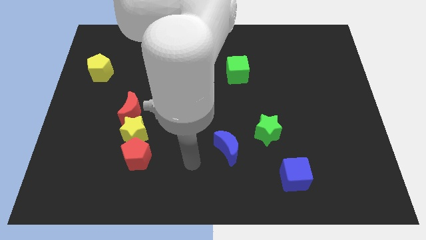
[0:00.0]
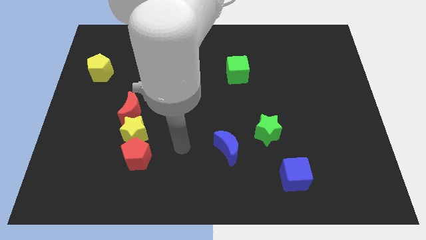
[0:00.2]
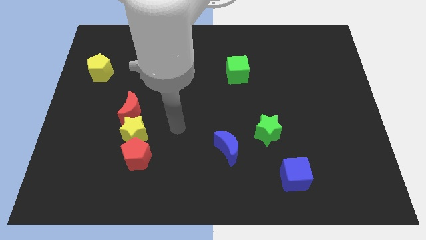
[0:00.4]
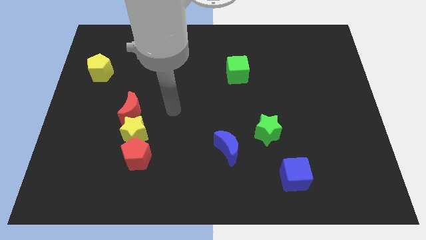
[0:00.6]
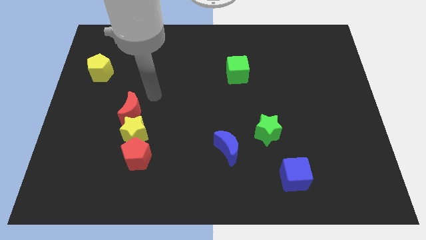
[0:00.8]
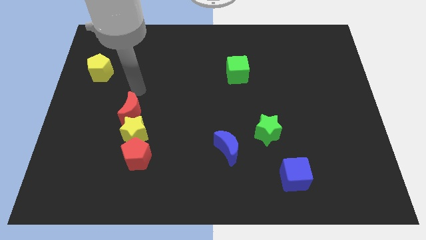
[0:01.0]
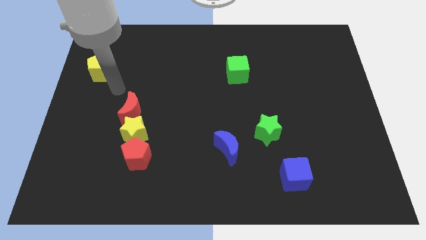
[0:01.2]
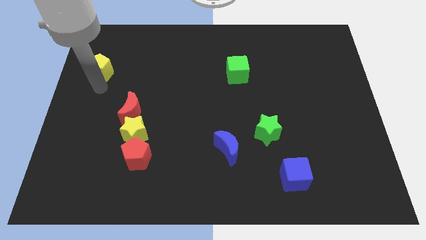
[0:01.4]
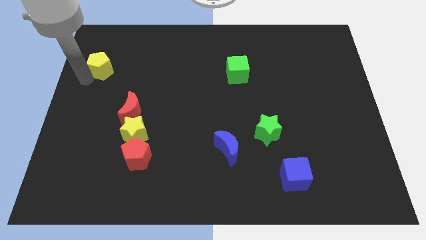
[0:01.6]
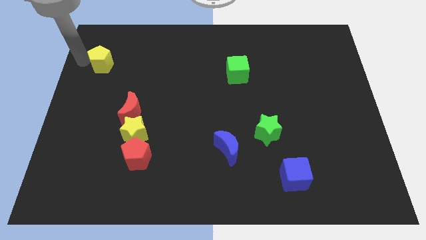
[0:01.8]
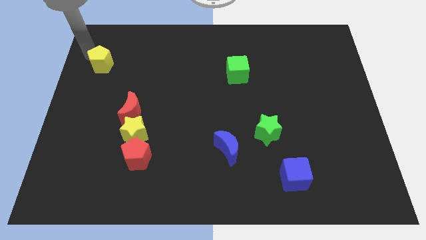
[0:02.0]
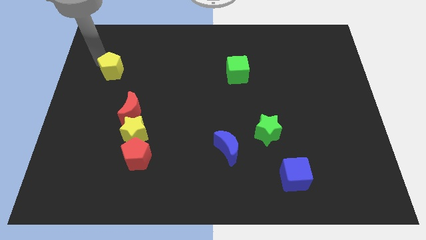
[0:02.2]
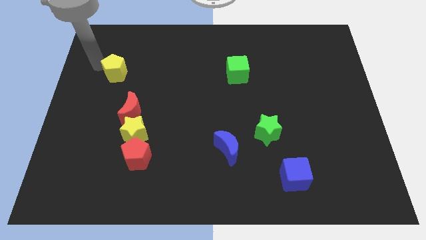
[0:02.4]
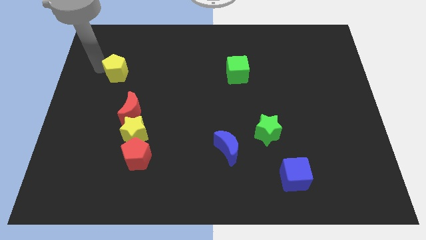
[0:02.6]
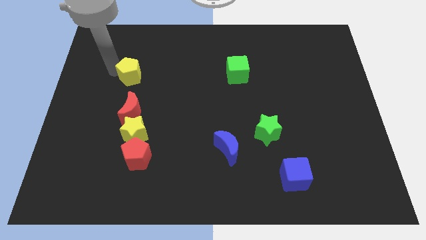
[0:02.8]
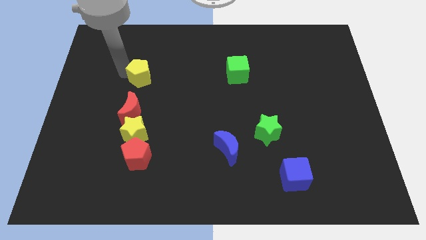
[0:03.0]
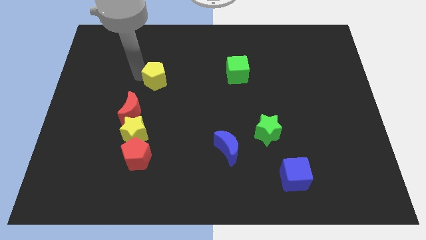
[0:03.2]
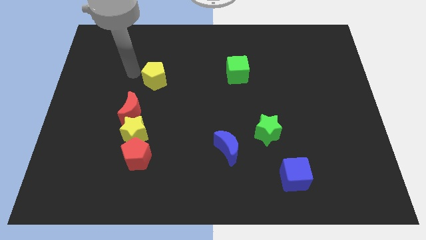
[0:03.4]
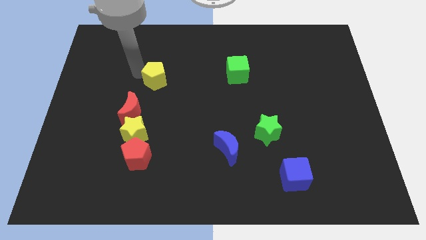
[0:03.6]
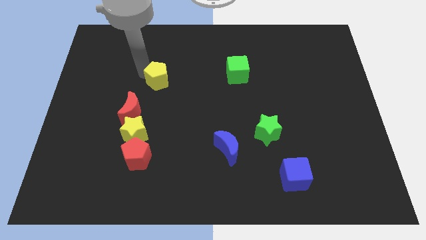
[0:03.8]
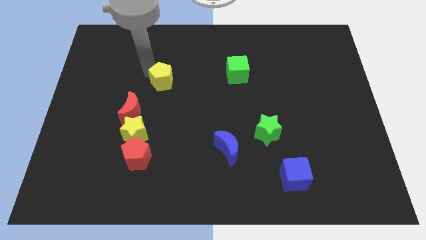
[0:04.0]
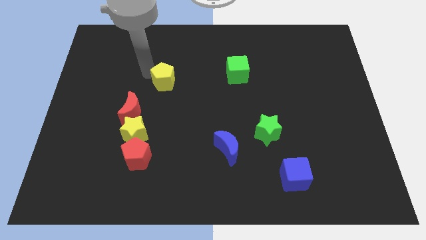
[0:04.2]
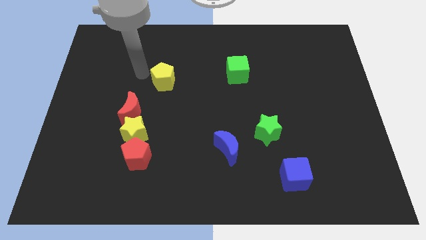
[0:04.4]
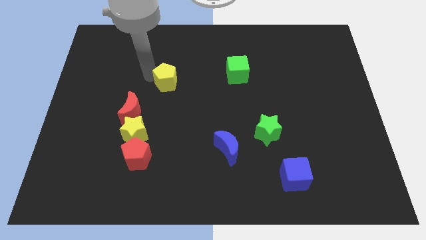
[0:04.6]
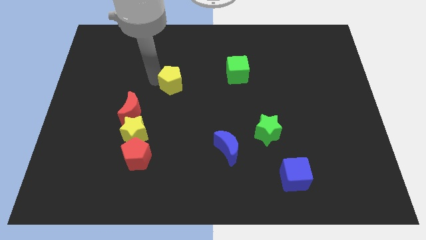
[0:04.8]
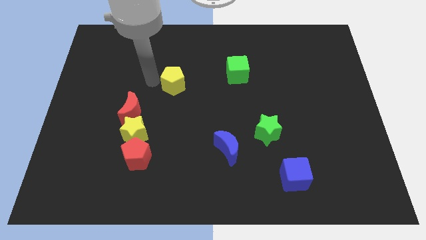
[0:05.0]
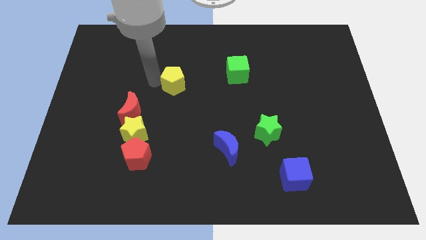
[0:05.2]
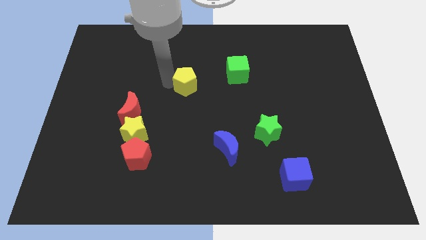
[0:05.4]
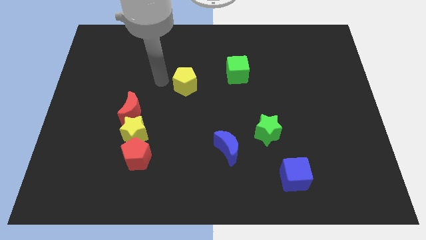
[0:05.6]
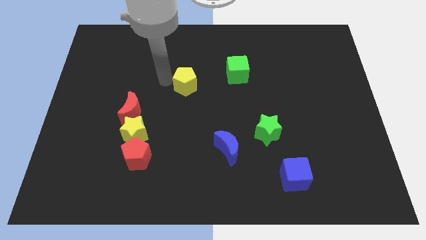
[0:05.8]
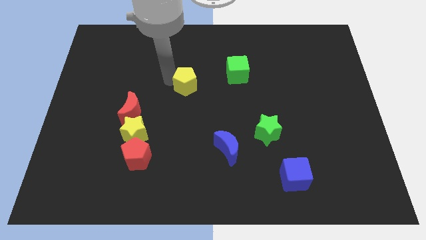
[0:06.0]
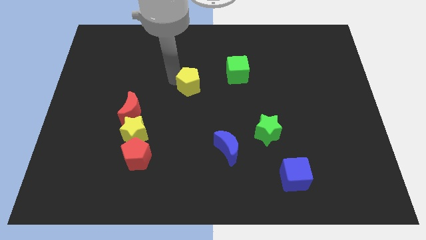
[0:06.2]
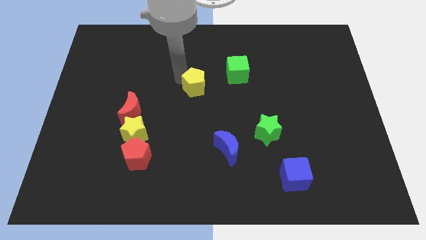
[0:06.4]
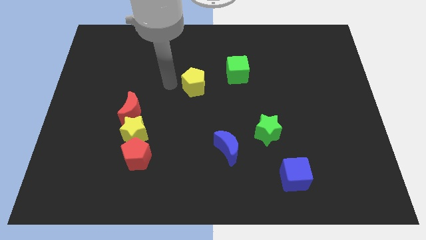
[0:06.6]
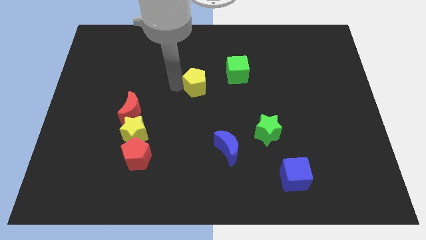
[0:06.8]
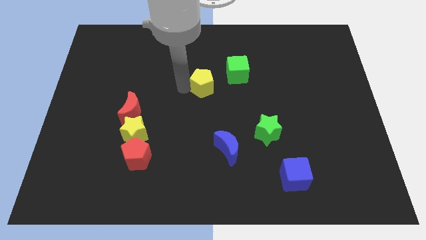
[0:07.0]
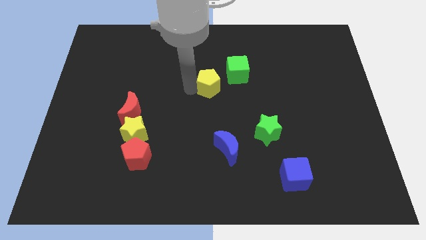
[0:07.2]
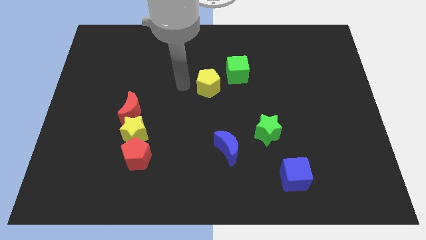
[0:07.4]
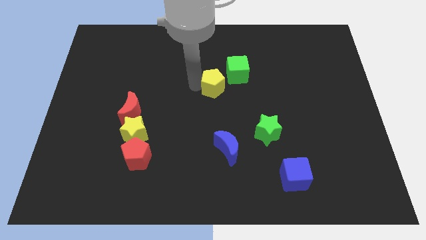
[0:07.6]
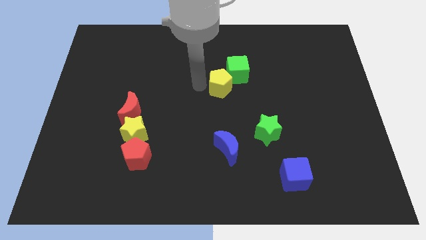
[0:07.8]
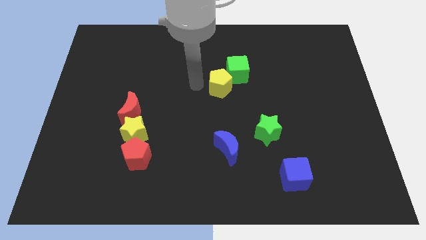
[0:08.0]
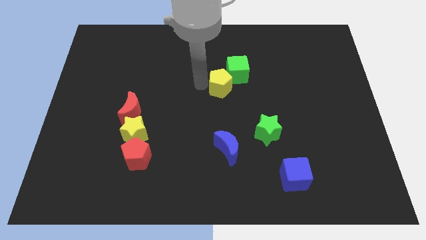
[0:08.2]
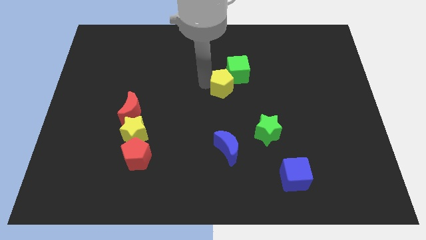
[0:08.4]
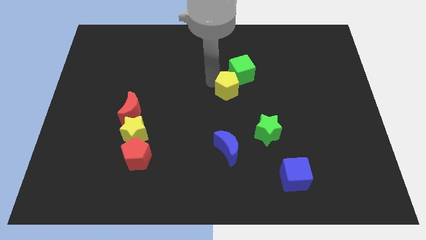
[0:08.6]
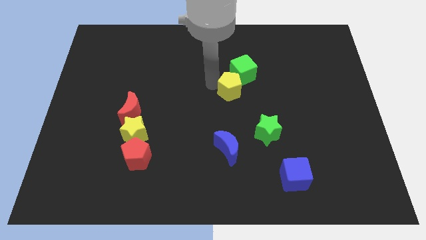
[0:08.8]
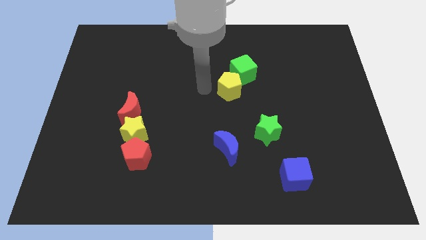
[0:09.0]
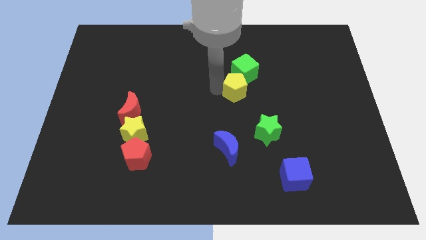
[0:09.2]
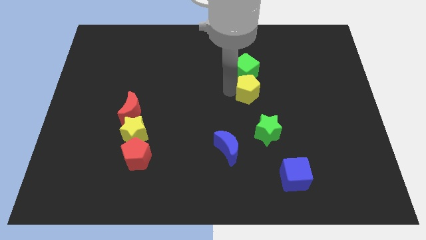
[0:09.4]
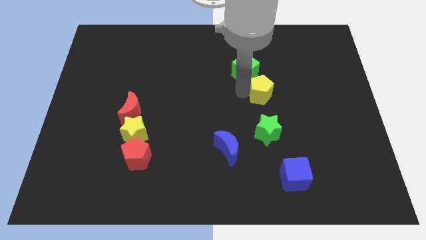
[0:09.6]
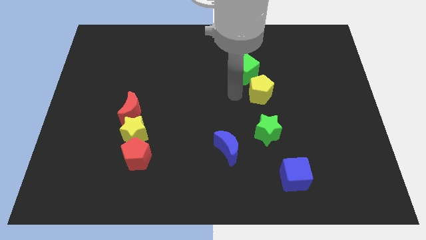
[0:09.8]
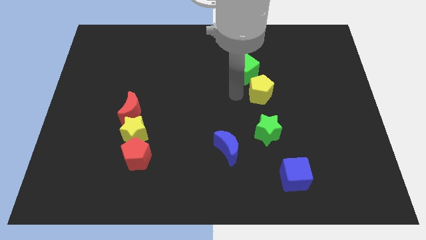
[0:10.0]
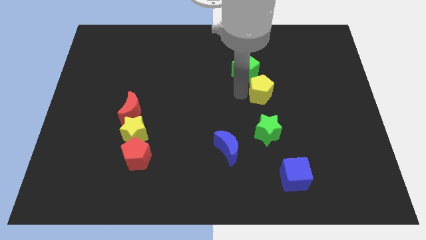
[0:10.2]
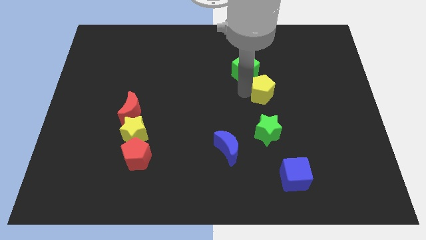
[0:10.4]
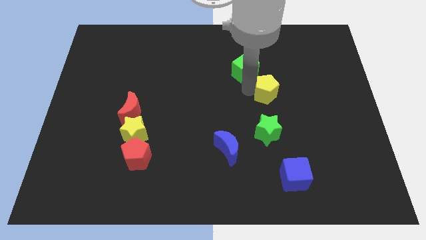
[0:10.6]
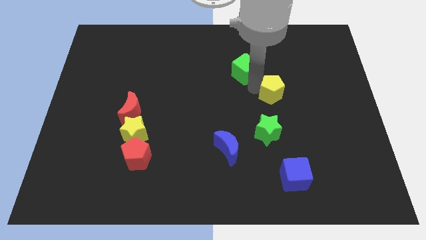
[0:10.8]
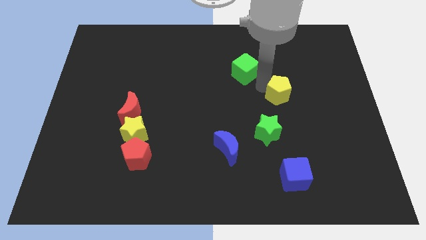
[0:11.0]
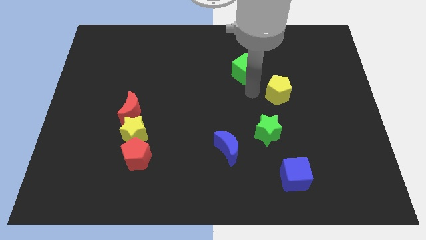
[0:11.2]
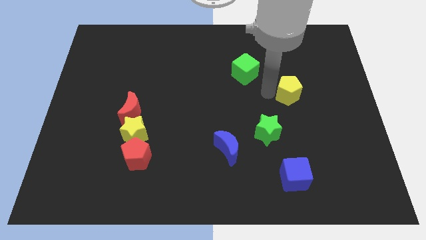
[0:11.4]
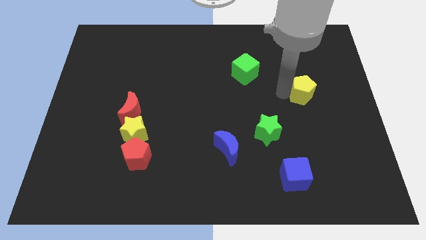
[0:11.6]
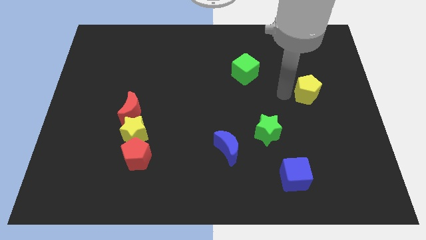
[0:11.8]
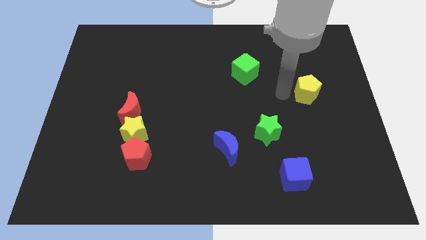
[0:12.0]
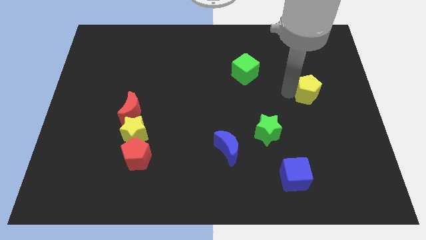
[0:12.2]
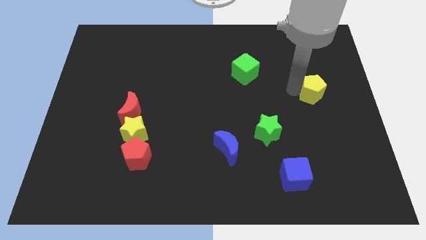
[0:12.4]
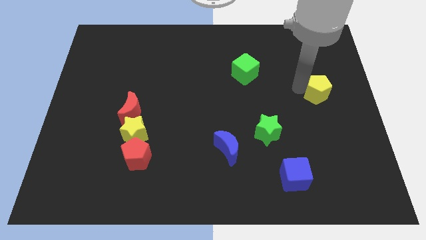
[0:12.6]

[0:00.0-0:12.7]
push the yellow pentagon to the right side
